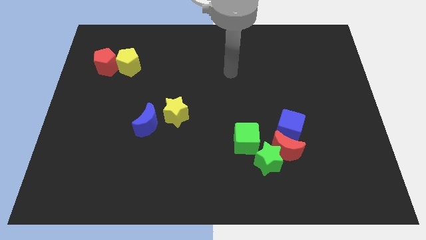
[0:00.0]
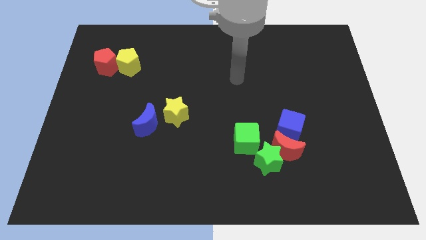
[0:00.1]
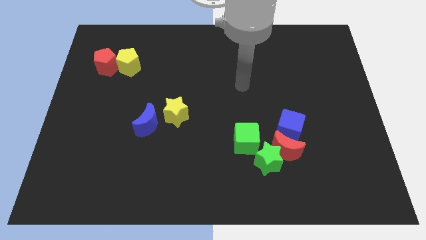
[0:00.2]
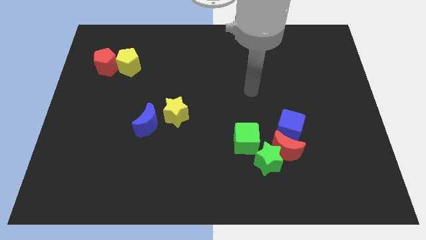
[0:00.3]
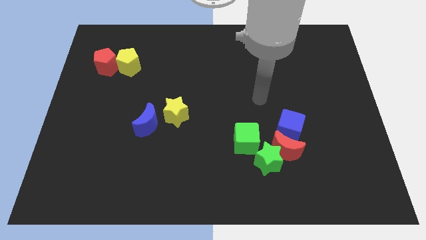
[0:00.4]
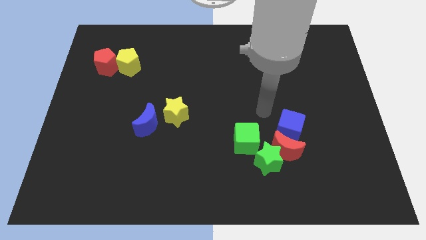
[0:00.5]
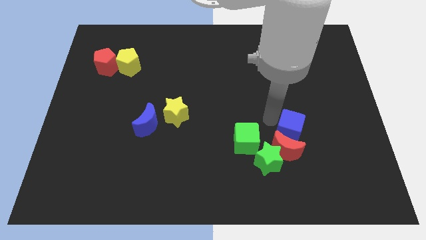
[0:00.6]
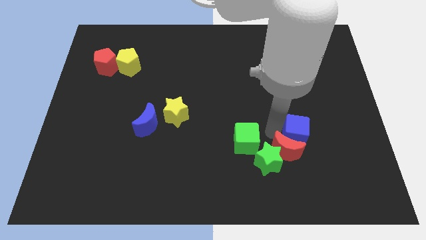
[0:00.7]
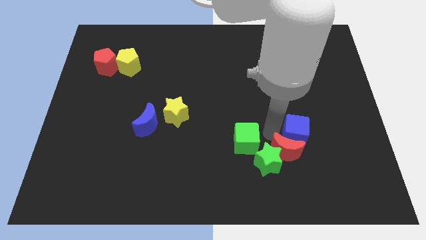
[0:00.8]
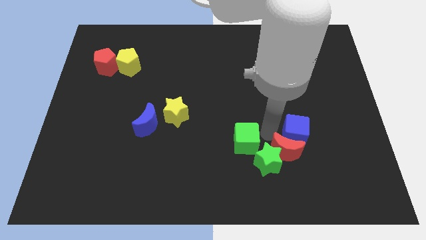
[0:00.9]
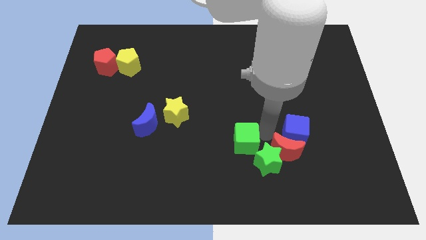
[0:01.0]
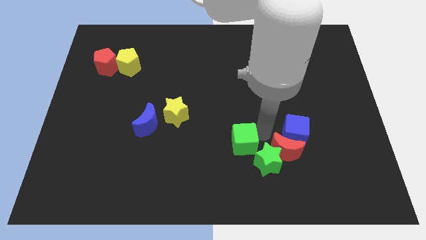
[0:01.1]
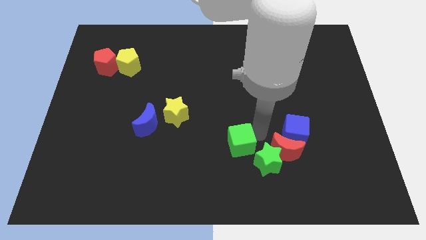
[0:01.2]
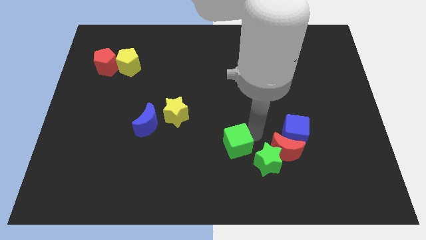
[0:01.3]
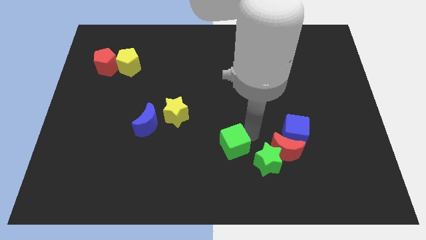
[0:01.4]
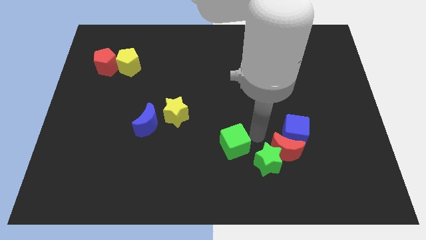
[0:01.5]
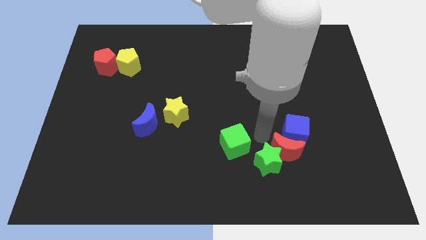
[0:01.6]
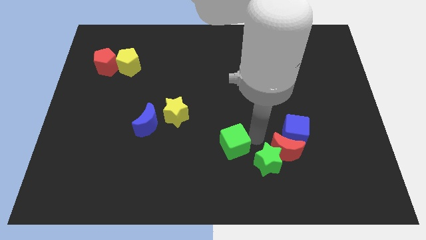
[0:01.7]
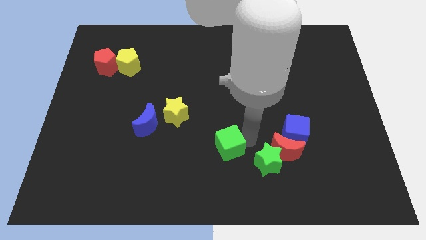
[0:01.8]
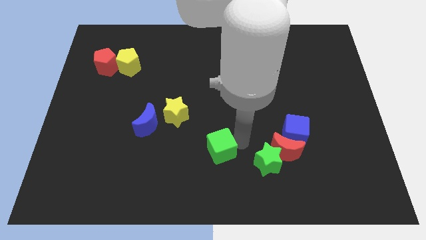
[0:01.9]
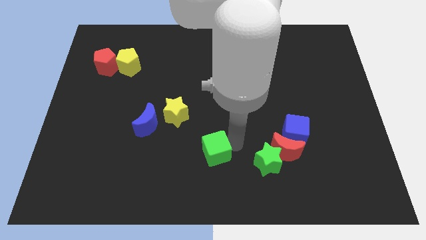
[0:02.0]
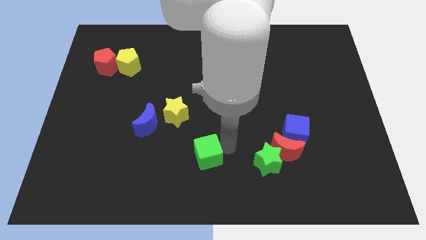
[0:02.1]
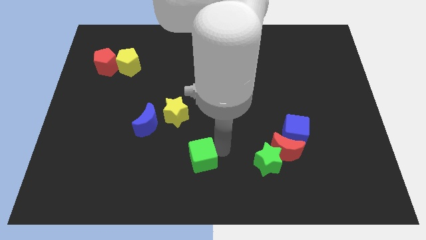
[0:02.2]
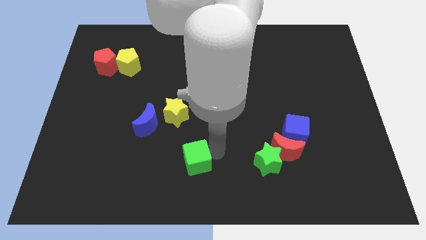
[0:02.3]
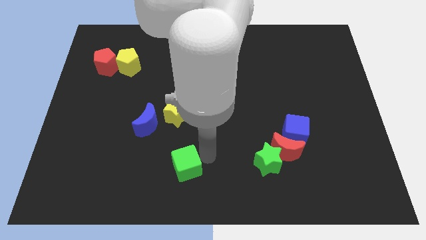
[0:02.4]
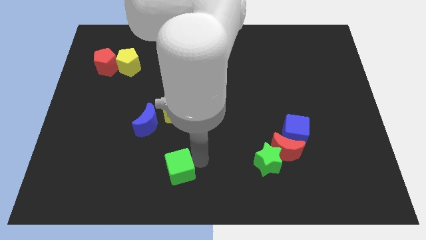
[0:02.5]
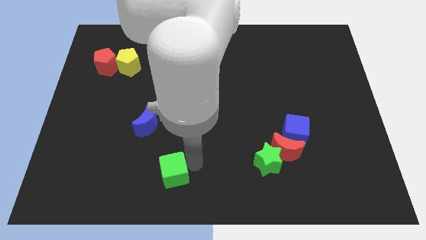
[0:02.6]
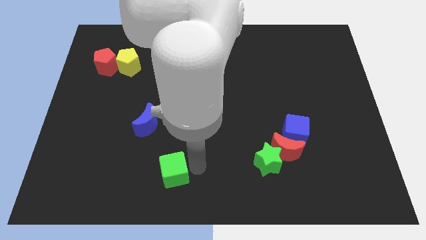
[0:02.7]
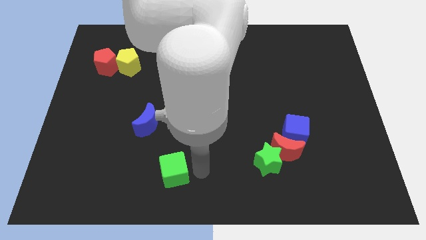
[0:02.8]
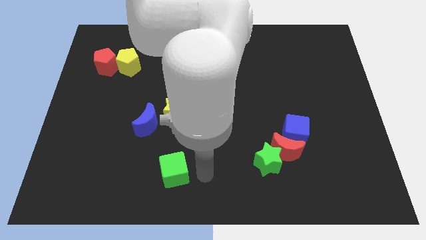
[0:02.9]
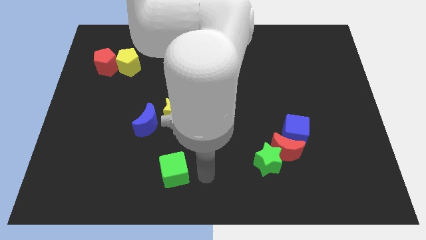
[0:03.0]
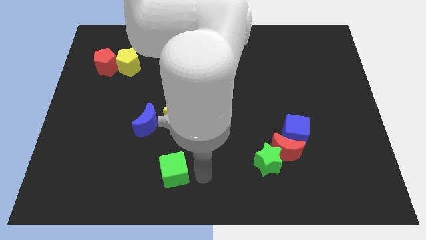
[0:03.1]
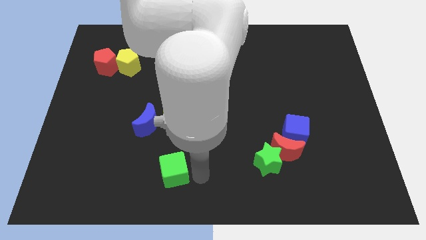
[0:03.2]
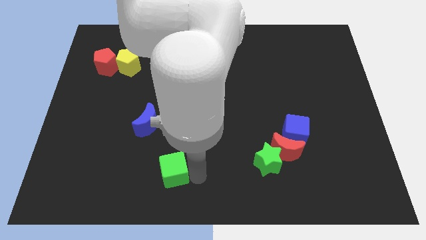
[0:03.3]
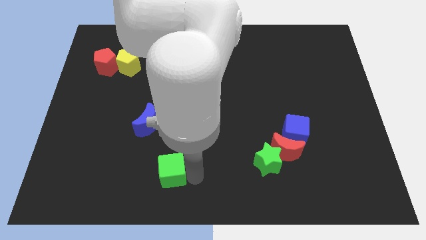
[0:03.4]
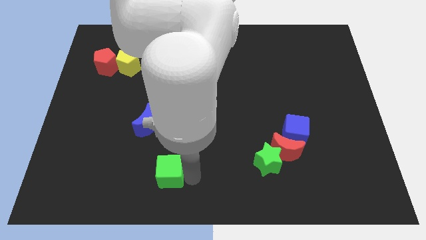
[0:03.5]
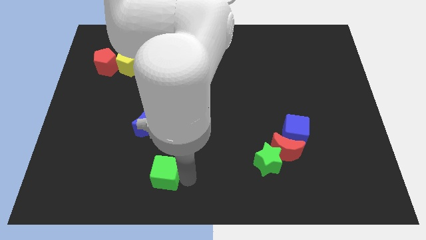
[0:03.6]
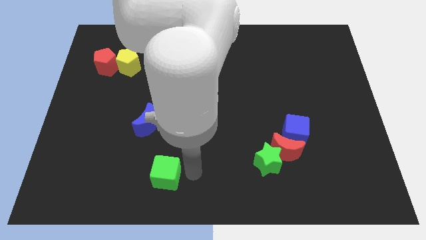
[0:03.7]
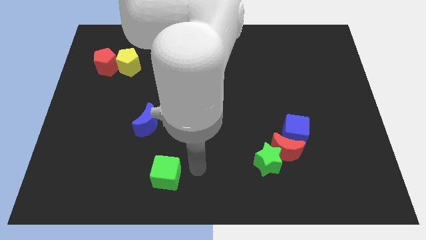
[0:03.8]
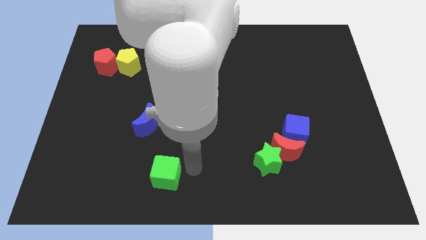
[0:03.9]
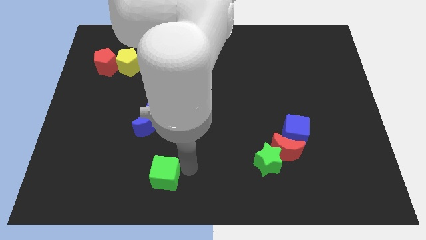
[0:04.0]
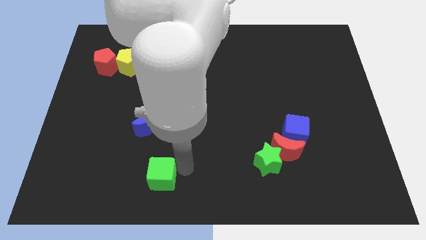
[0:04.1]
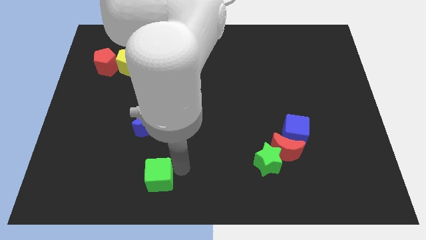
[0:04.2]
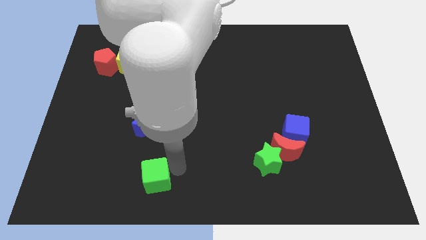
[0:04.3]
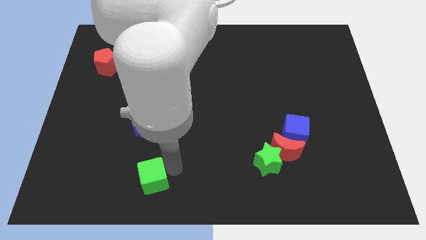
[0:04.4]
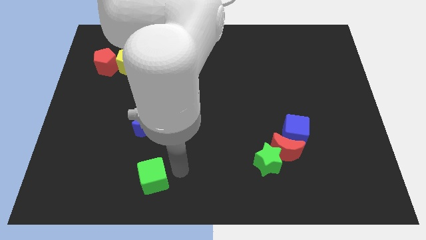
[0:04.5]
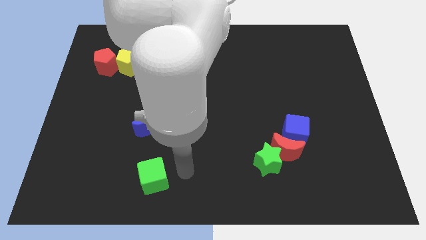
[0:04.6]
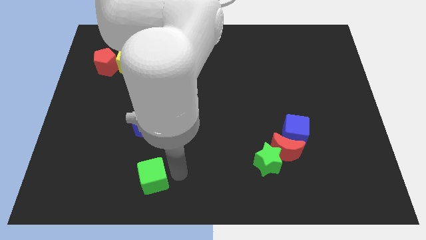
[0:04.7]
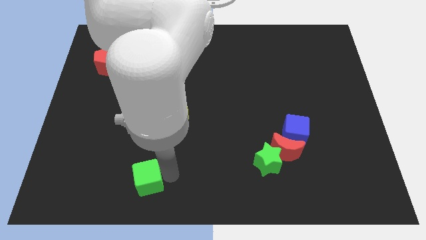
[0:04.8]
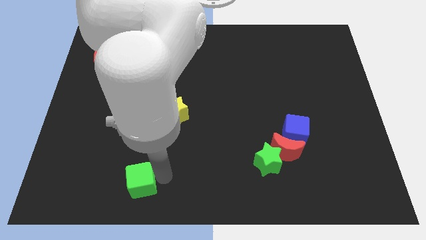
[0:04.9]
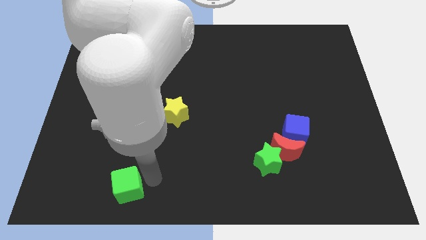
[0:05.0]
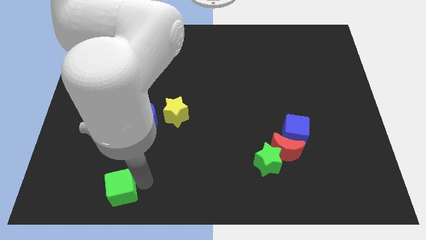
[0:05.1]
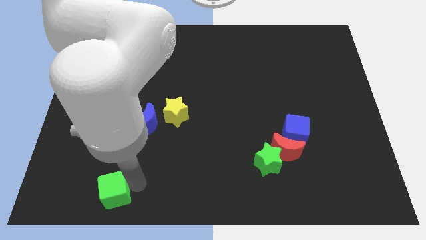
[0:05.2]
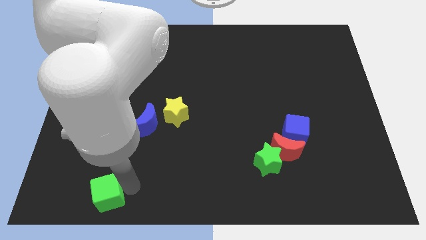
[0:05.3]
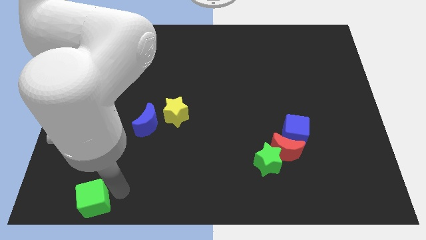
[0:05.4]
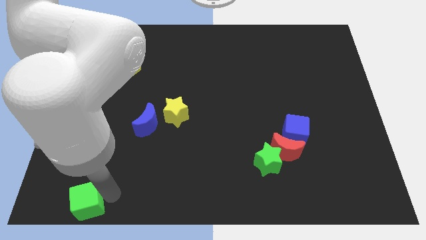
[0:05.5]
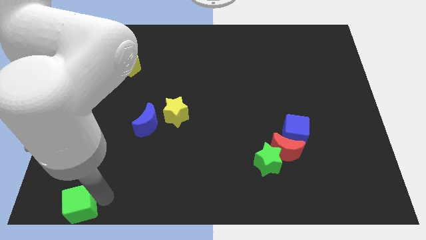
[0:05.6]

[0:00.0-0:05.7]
slide the green cube to the lower left corner
